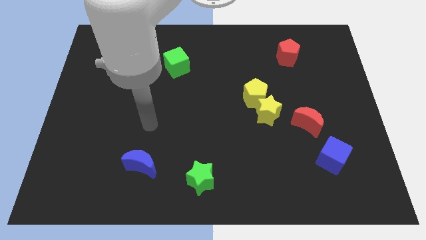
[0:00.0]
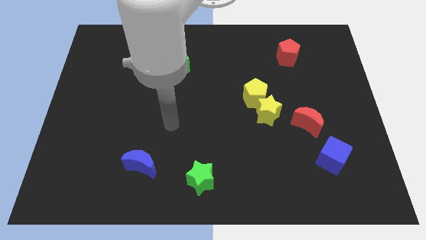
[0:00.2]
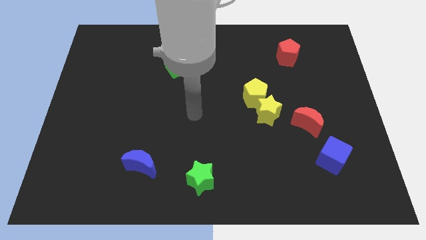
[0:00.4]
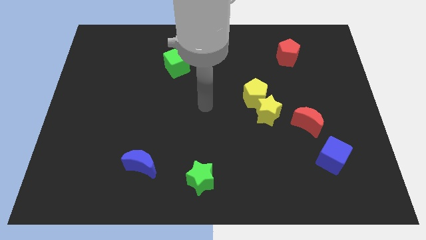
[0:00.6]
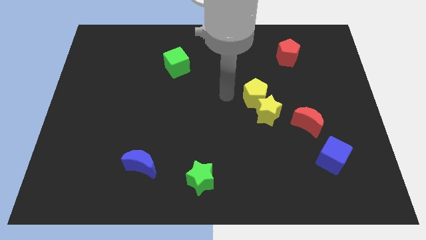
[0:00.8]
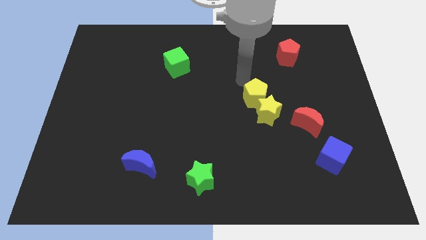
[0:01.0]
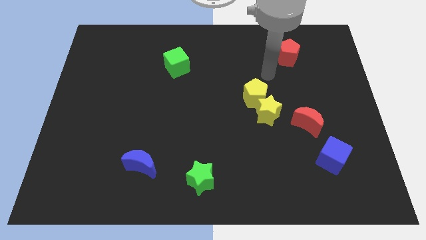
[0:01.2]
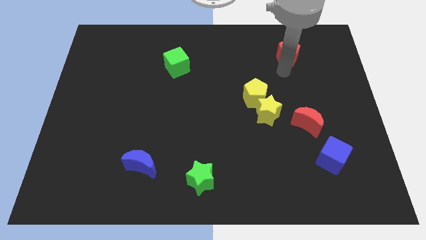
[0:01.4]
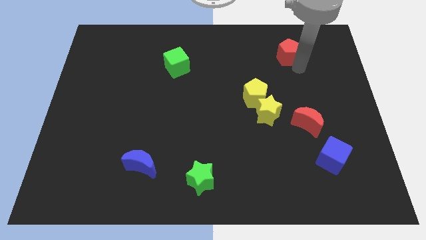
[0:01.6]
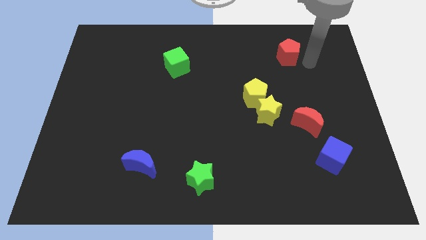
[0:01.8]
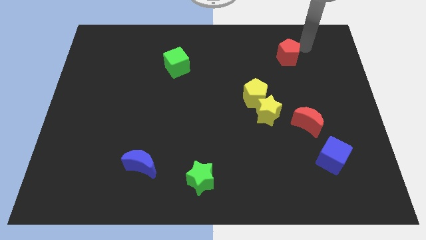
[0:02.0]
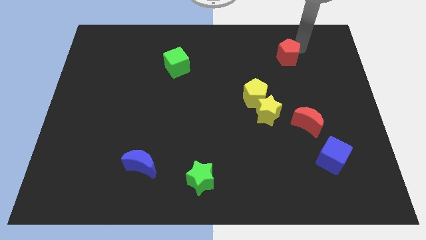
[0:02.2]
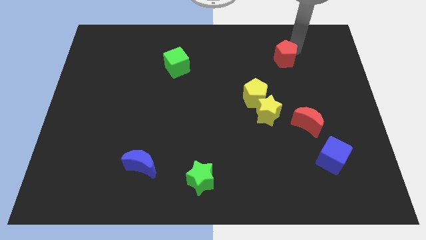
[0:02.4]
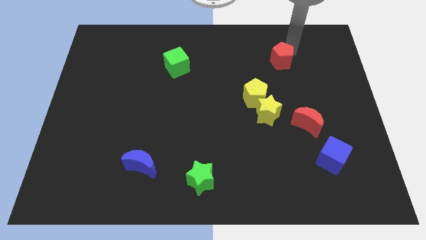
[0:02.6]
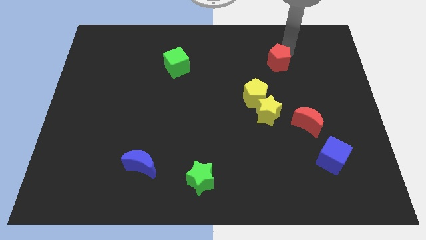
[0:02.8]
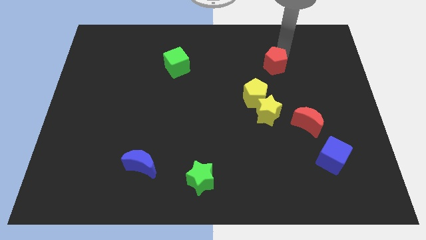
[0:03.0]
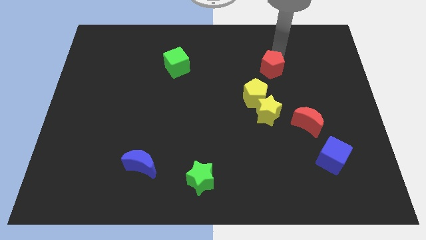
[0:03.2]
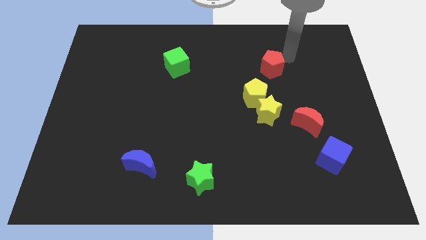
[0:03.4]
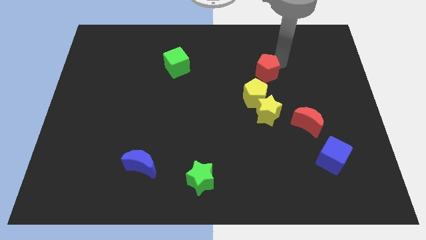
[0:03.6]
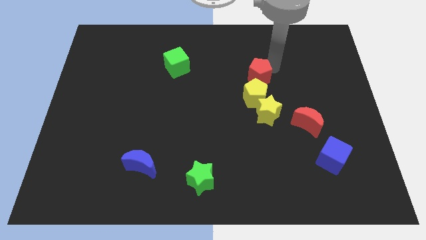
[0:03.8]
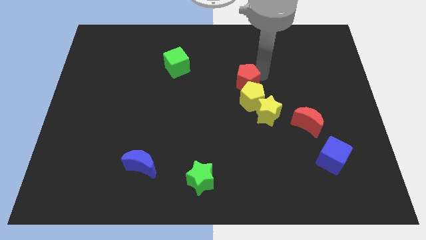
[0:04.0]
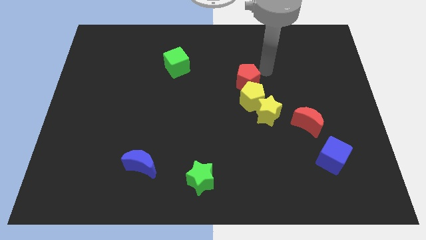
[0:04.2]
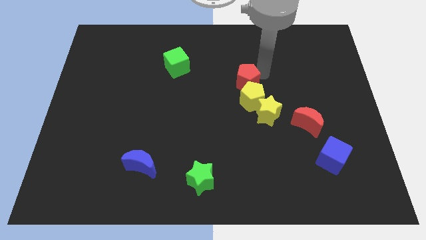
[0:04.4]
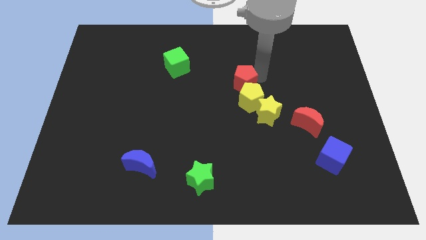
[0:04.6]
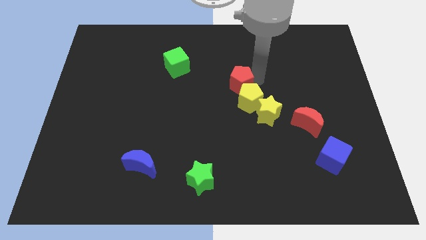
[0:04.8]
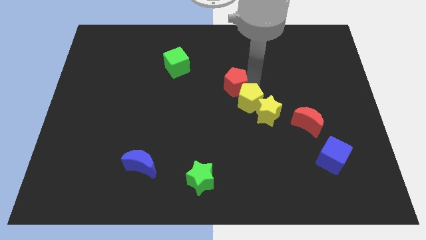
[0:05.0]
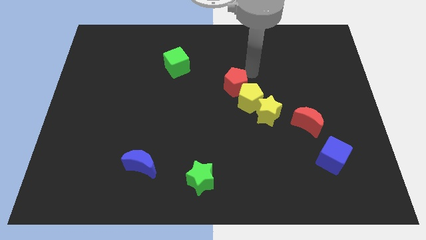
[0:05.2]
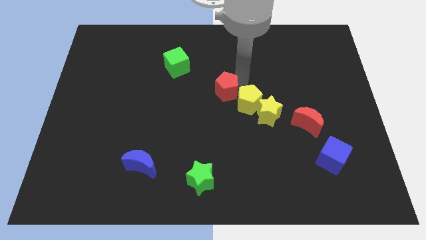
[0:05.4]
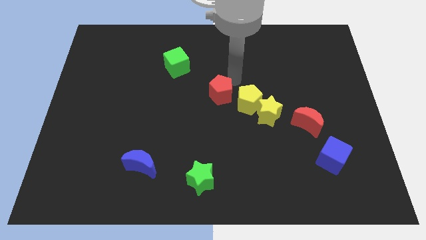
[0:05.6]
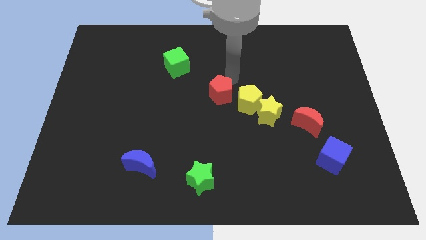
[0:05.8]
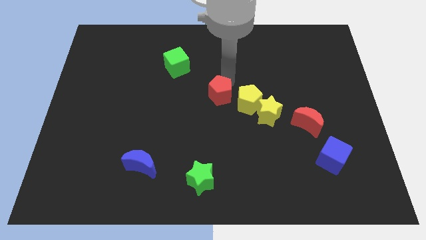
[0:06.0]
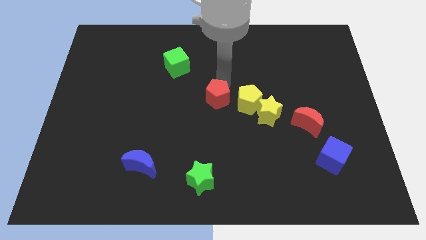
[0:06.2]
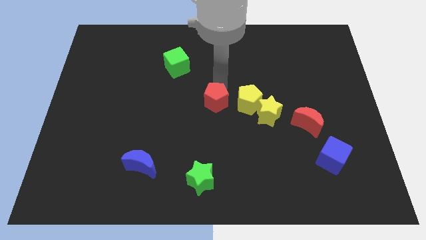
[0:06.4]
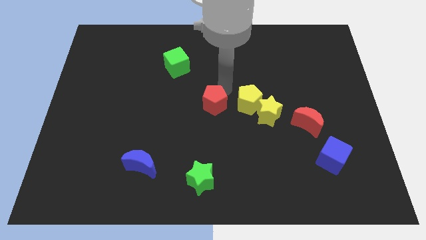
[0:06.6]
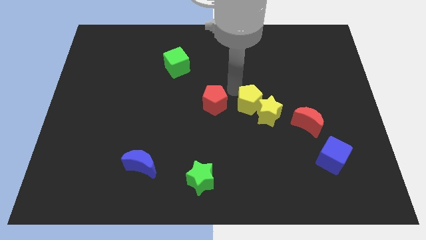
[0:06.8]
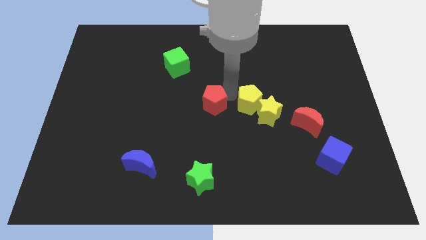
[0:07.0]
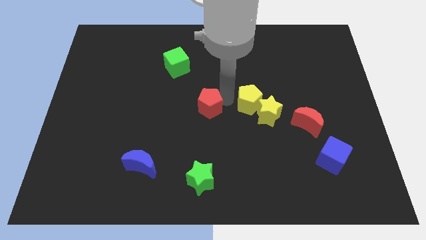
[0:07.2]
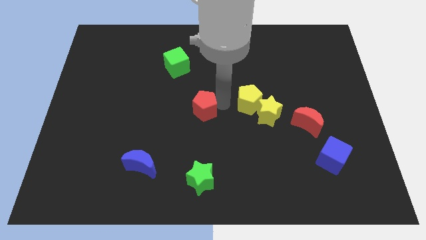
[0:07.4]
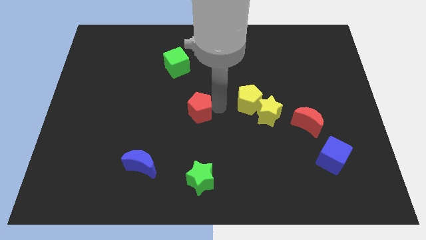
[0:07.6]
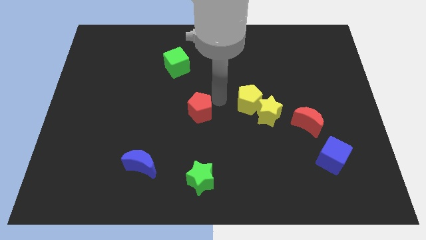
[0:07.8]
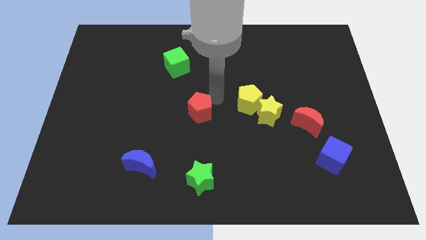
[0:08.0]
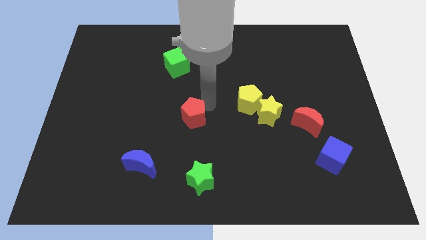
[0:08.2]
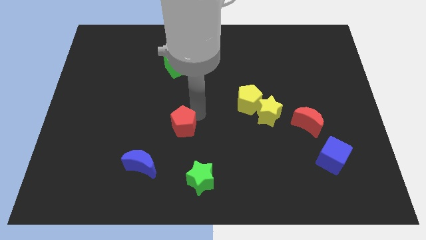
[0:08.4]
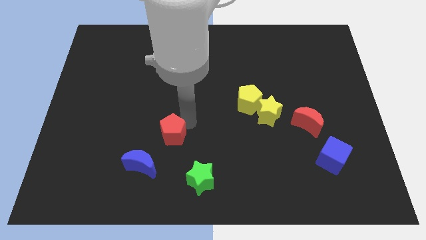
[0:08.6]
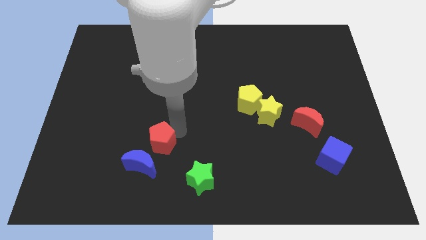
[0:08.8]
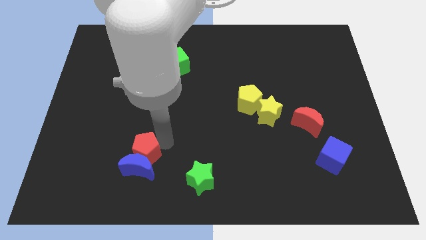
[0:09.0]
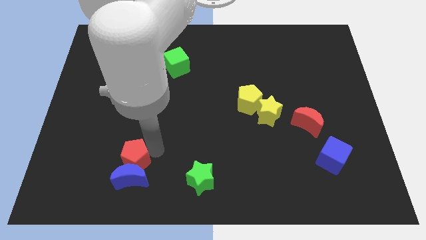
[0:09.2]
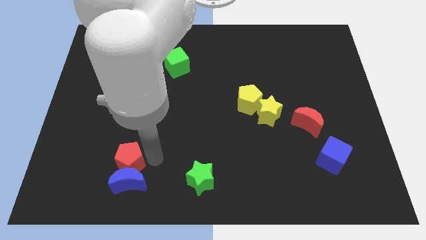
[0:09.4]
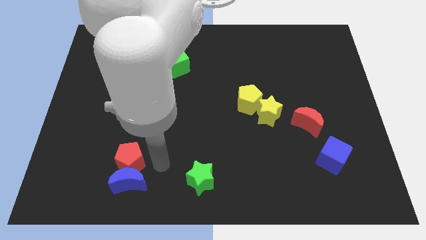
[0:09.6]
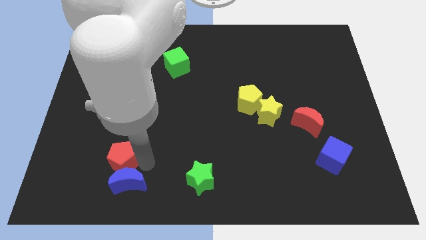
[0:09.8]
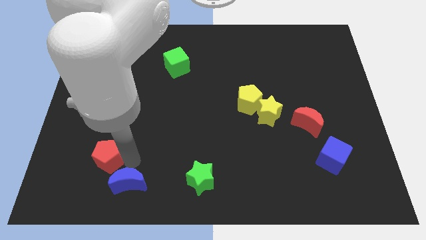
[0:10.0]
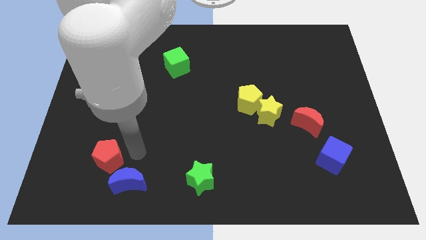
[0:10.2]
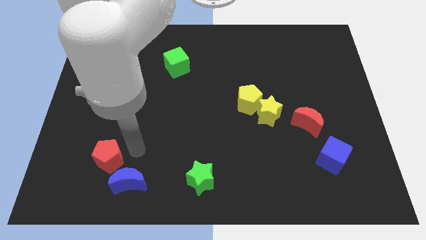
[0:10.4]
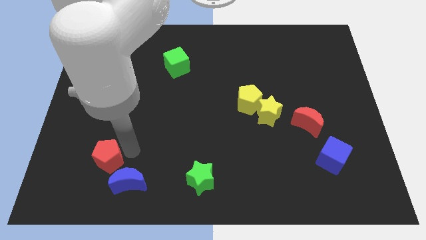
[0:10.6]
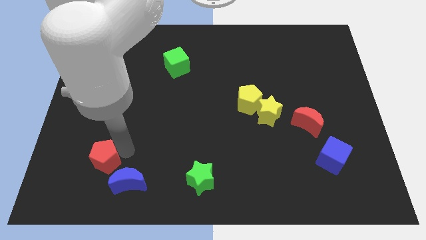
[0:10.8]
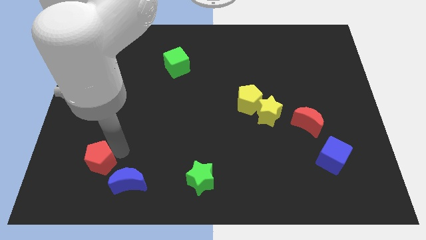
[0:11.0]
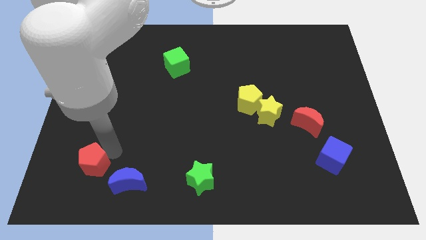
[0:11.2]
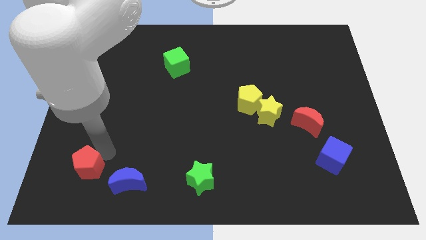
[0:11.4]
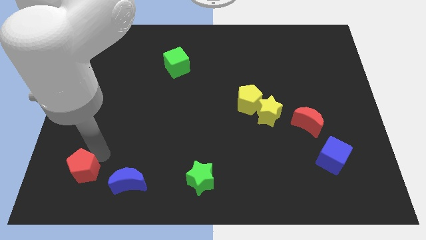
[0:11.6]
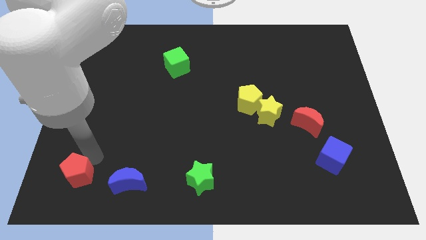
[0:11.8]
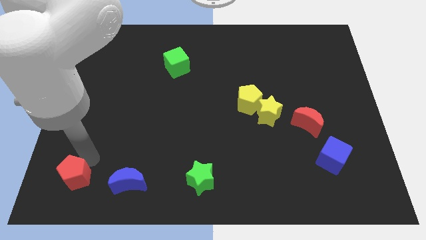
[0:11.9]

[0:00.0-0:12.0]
put the red pentagon to the bottom left
